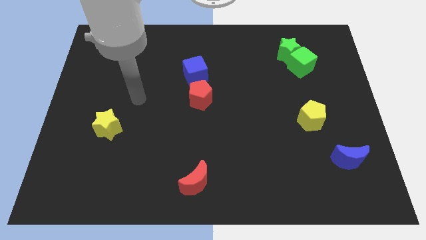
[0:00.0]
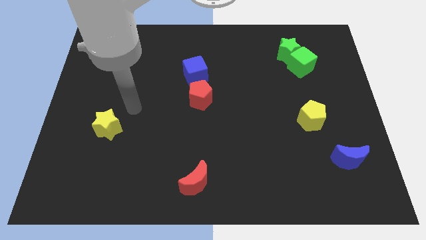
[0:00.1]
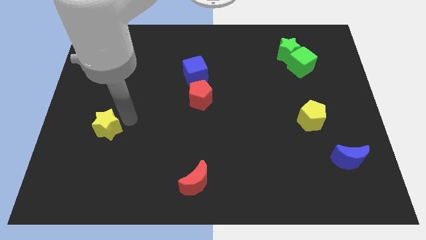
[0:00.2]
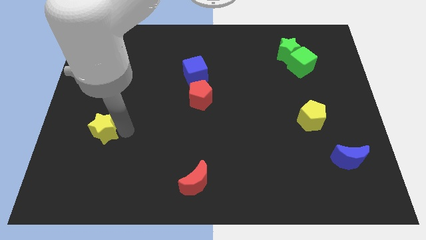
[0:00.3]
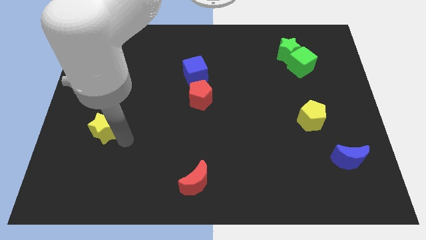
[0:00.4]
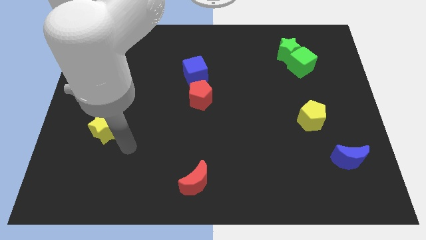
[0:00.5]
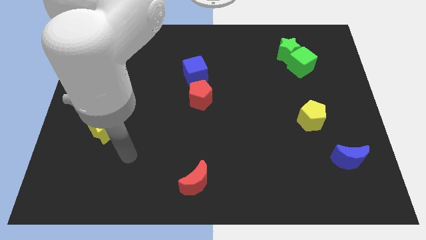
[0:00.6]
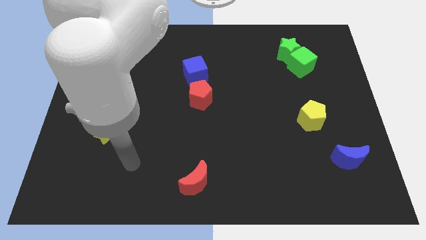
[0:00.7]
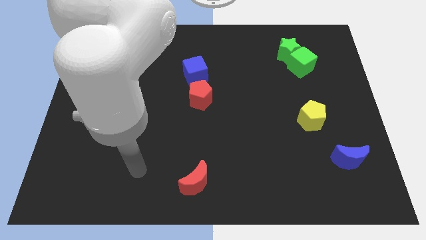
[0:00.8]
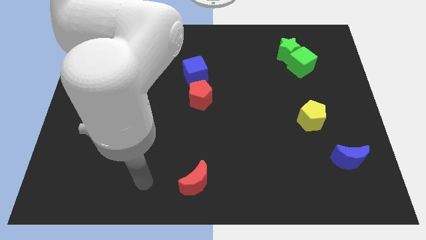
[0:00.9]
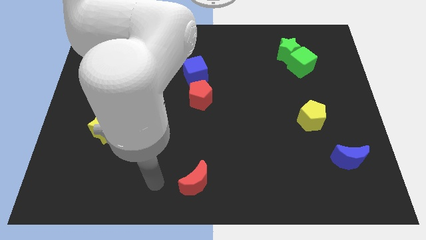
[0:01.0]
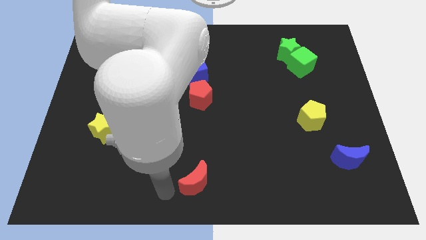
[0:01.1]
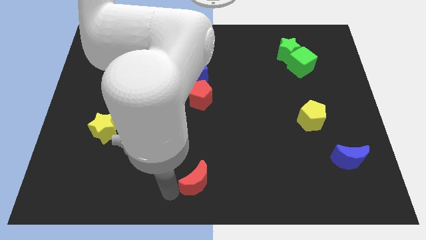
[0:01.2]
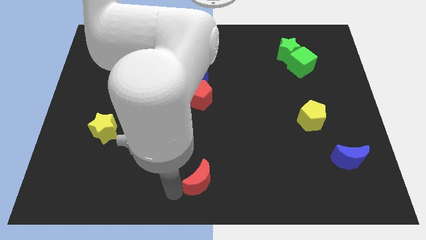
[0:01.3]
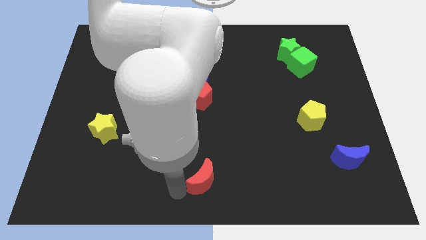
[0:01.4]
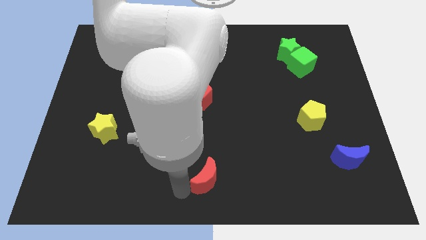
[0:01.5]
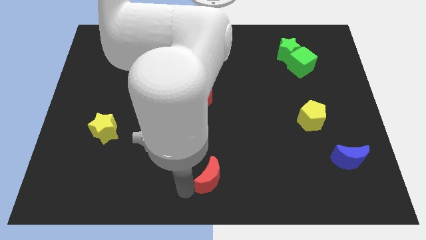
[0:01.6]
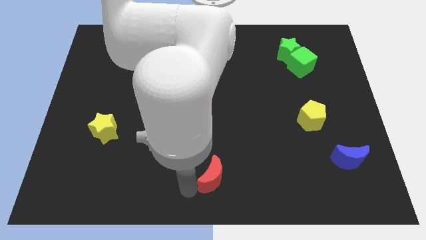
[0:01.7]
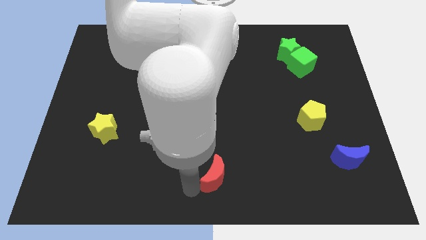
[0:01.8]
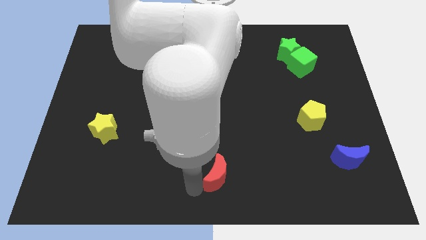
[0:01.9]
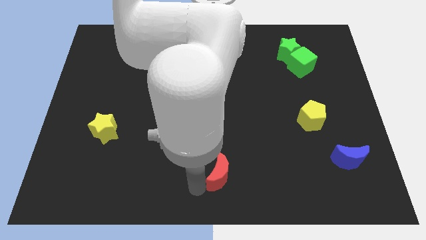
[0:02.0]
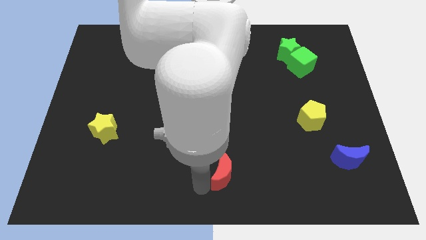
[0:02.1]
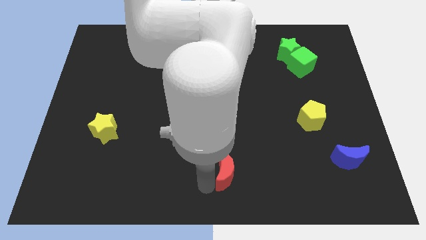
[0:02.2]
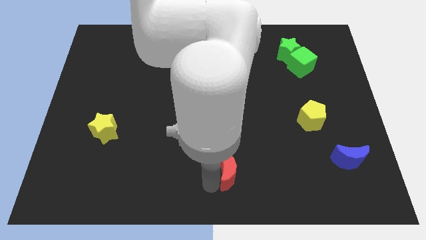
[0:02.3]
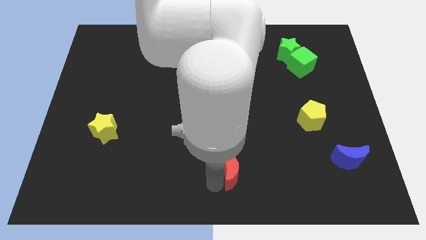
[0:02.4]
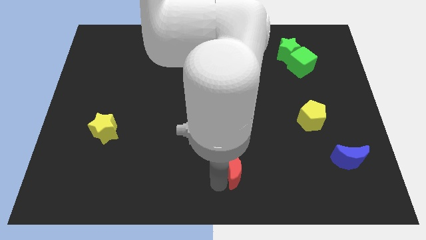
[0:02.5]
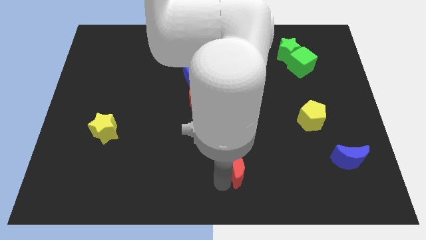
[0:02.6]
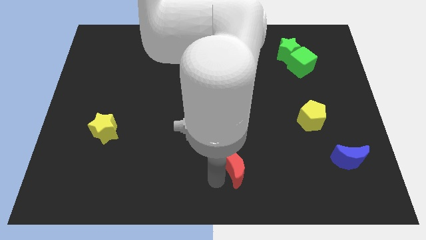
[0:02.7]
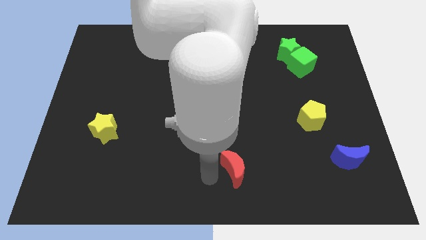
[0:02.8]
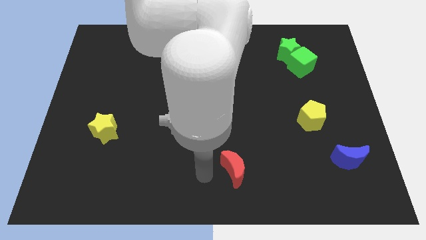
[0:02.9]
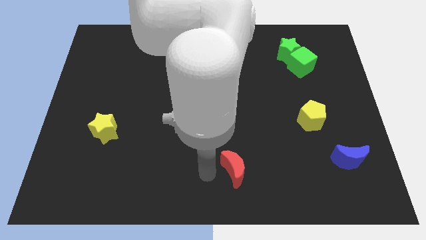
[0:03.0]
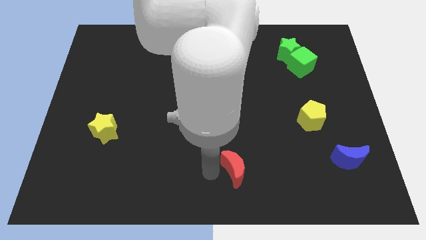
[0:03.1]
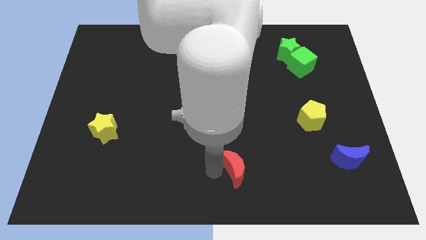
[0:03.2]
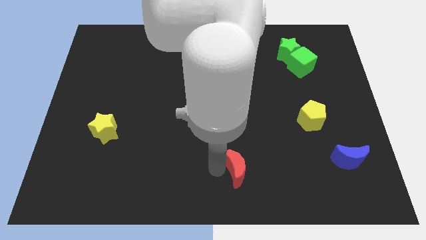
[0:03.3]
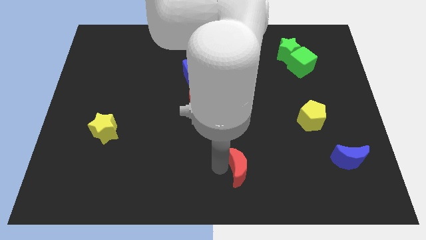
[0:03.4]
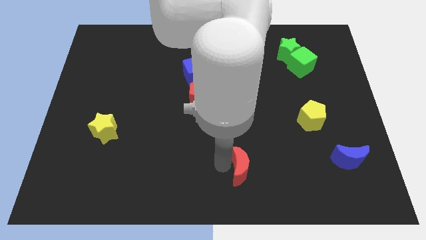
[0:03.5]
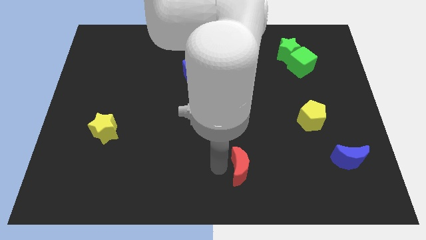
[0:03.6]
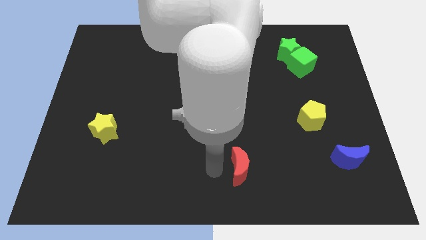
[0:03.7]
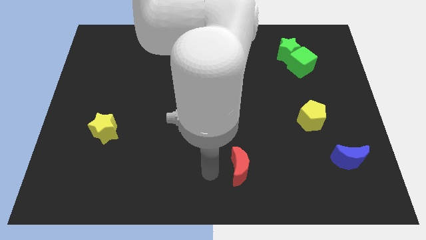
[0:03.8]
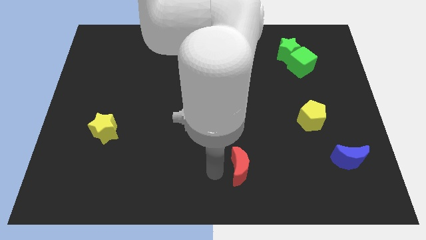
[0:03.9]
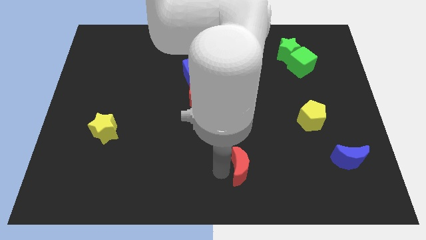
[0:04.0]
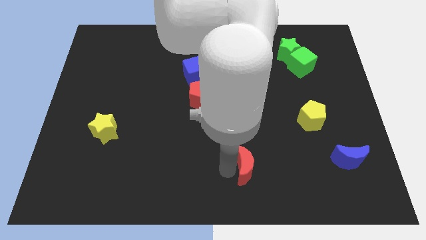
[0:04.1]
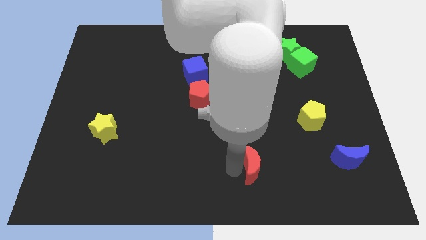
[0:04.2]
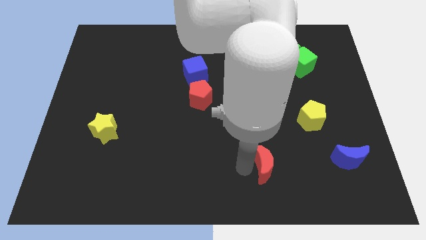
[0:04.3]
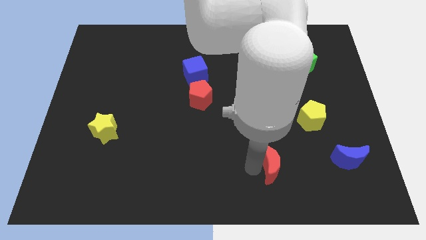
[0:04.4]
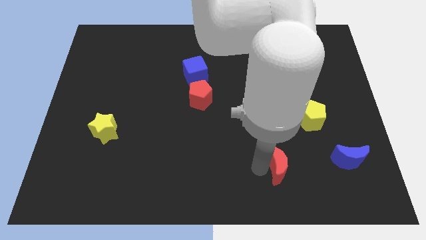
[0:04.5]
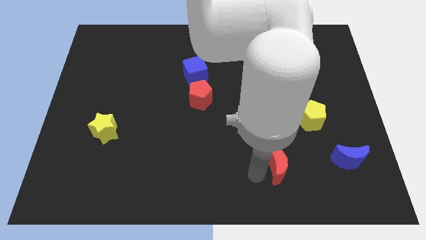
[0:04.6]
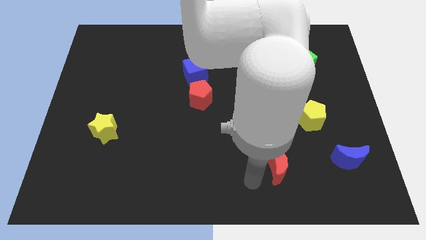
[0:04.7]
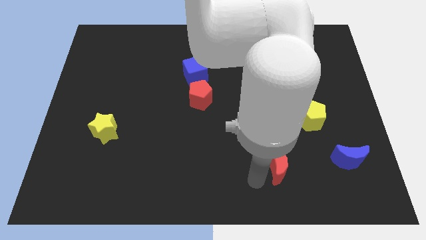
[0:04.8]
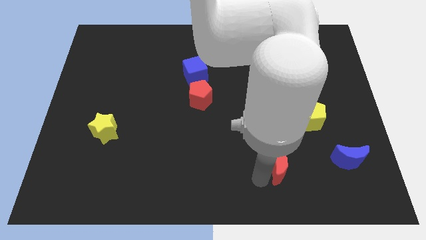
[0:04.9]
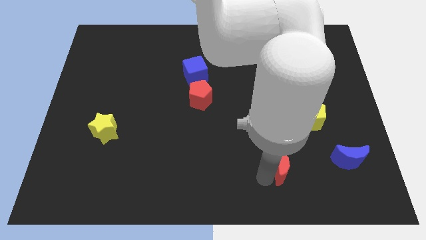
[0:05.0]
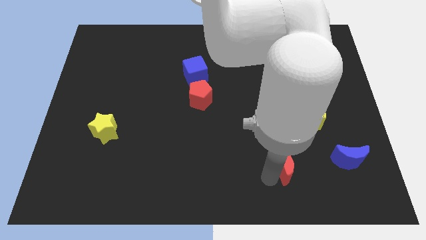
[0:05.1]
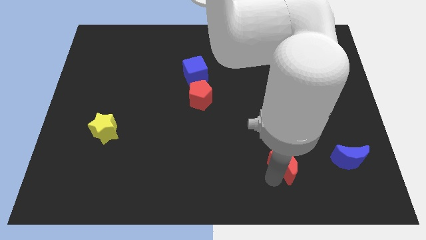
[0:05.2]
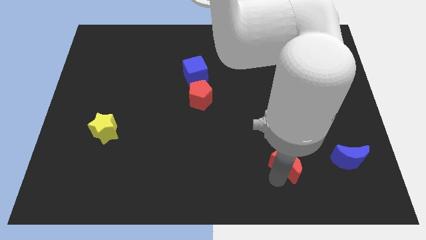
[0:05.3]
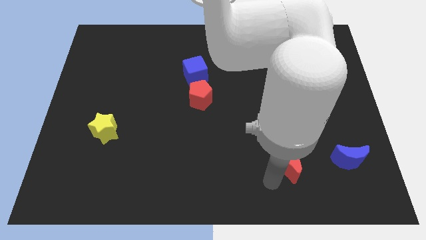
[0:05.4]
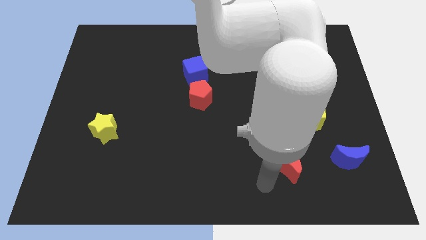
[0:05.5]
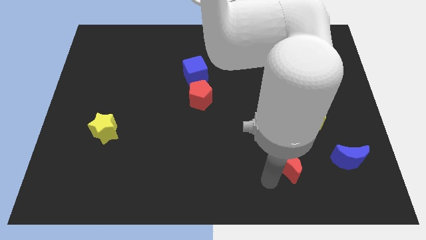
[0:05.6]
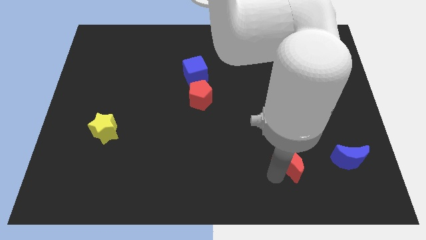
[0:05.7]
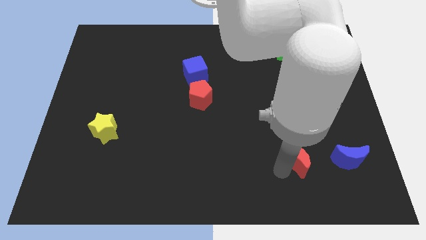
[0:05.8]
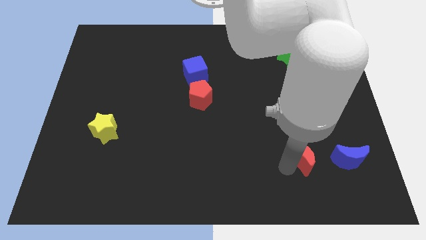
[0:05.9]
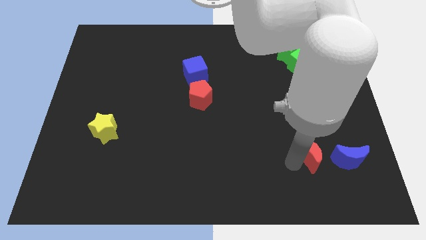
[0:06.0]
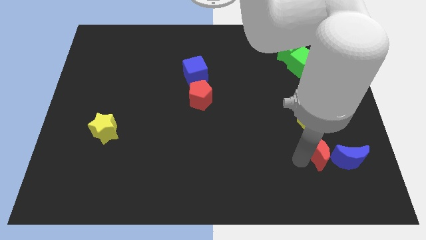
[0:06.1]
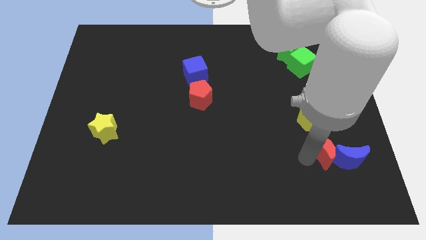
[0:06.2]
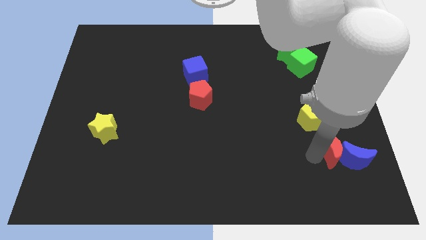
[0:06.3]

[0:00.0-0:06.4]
push the red moon to the bottom right of the yellow pentagon
